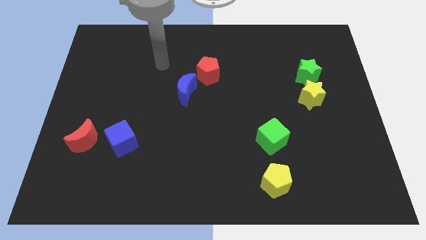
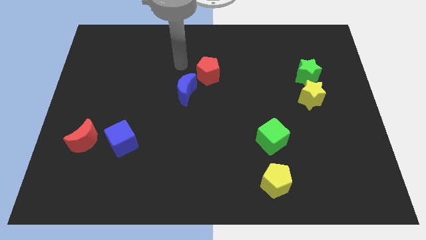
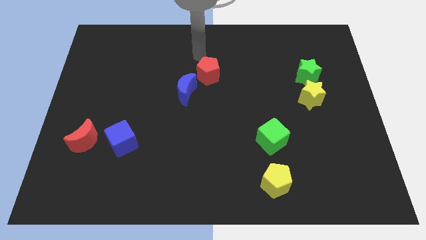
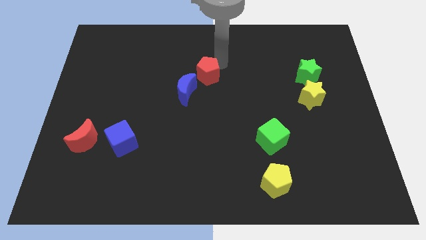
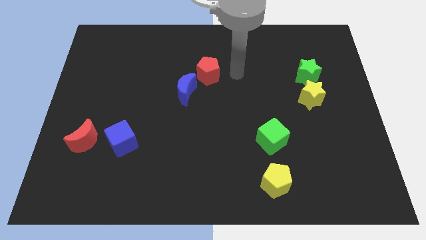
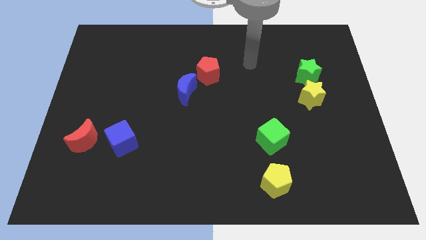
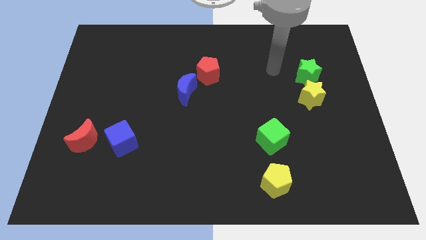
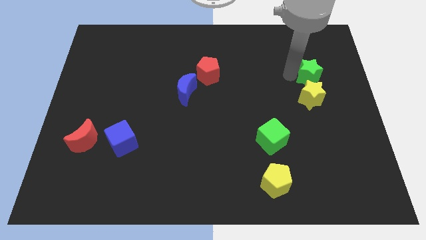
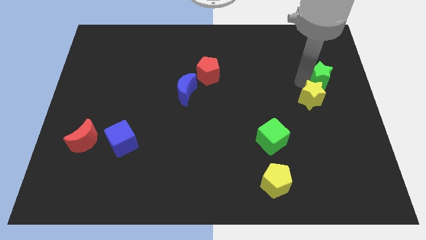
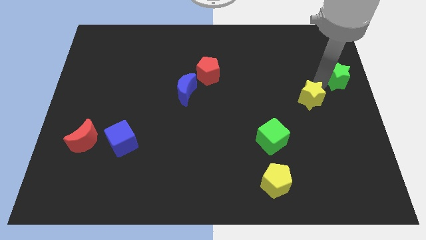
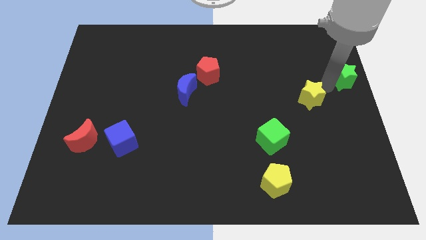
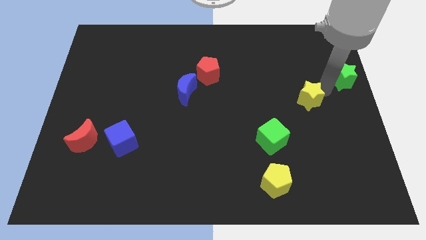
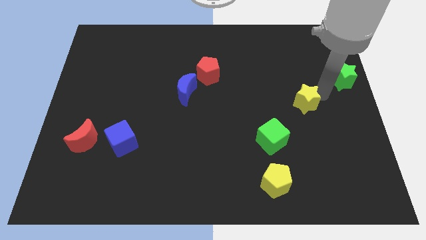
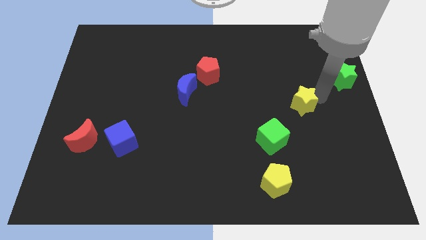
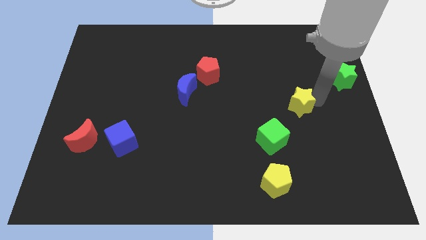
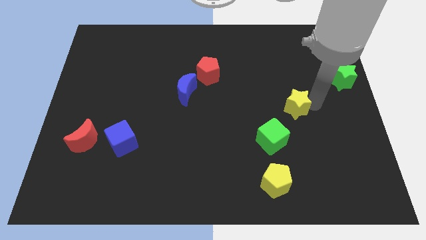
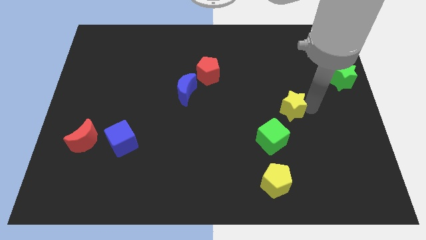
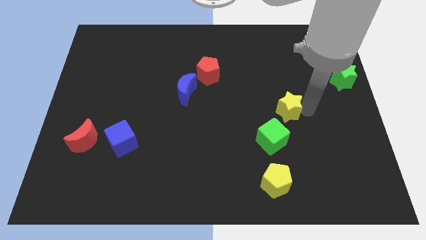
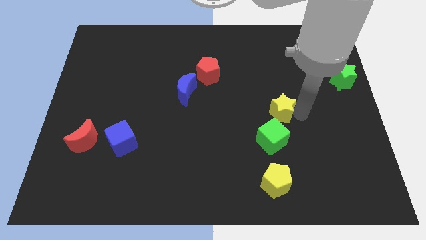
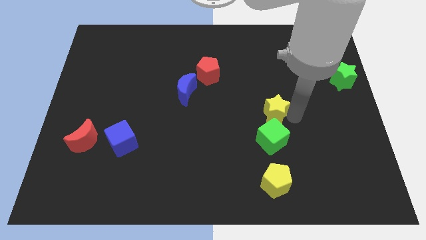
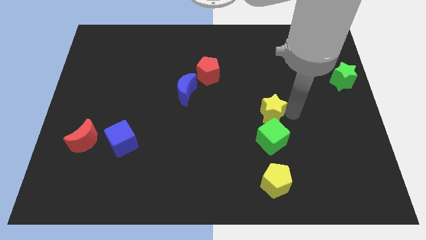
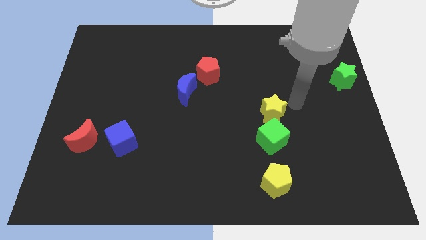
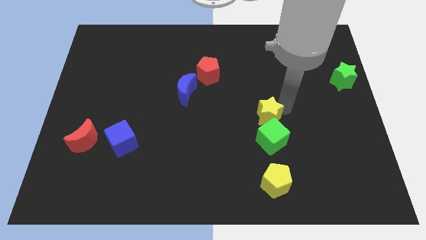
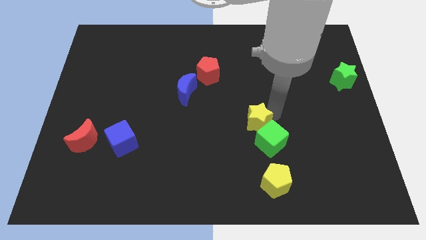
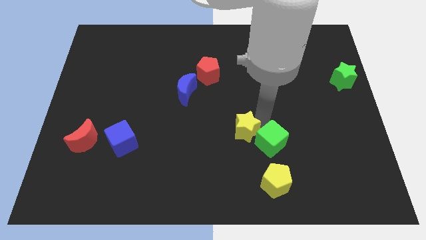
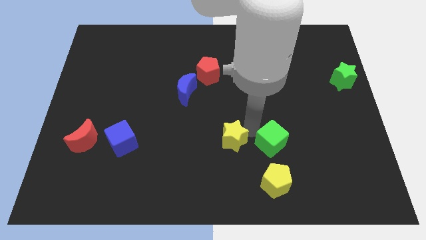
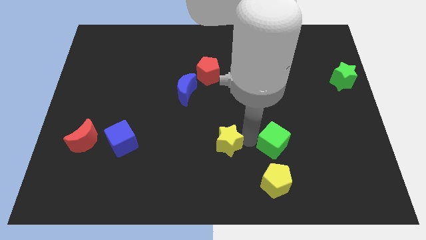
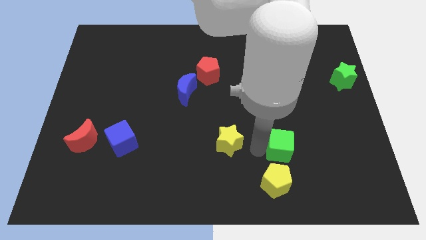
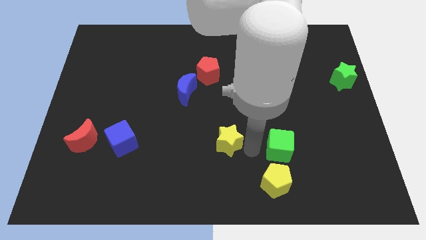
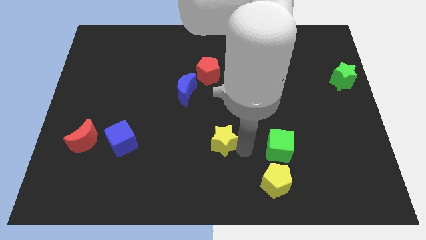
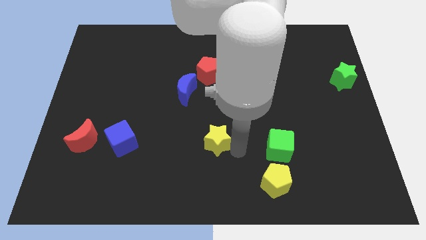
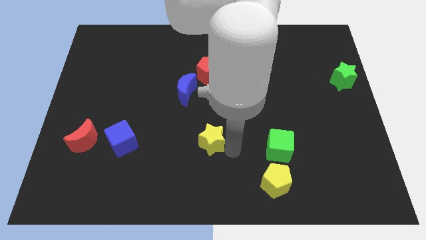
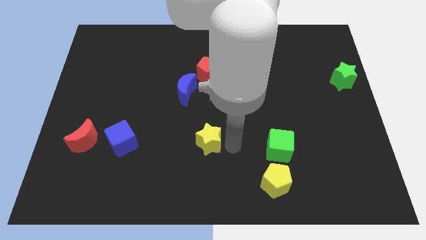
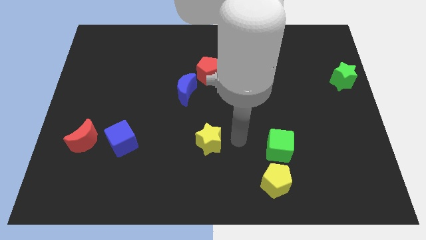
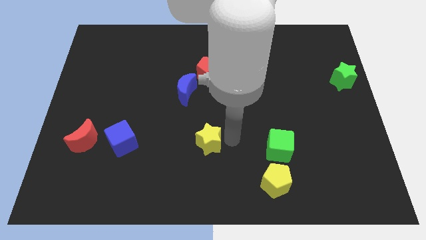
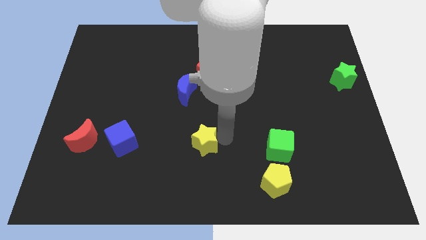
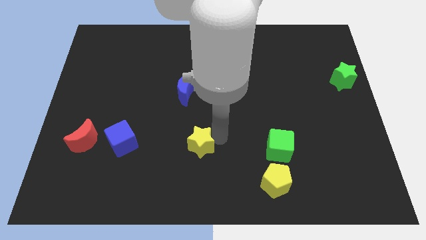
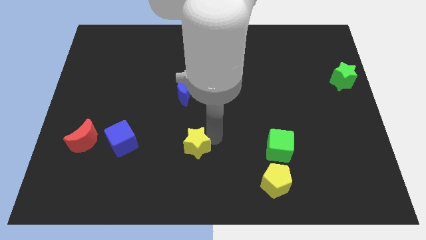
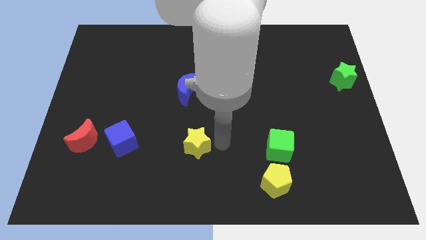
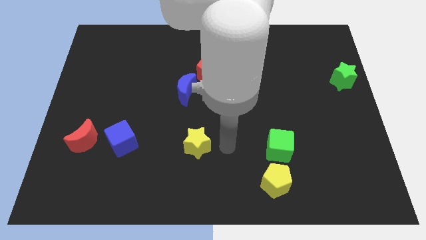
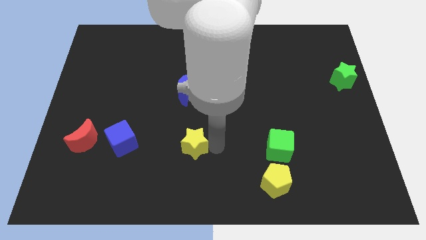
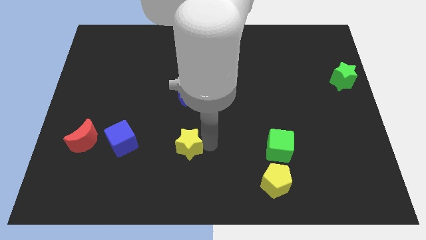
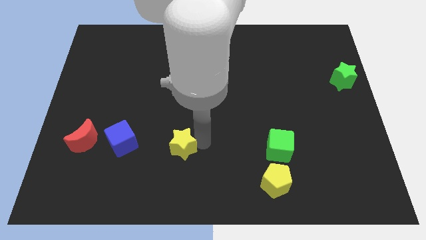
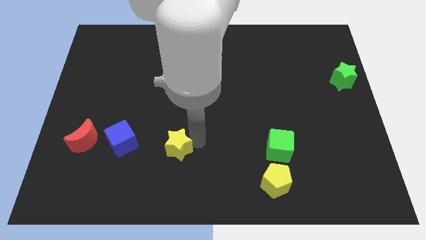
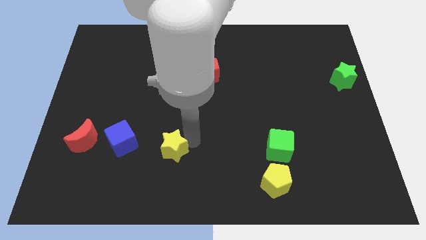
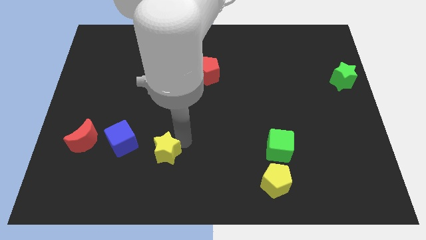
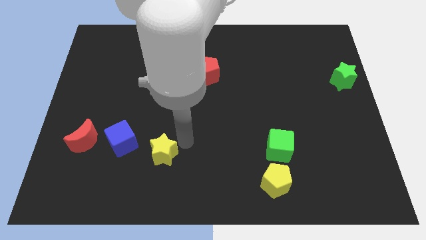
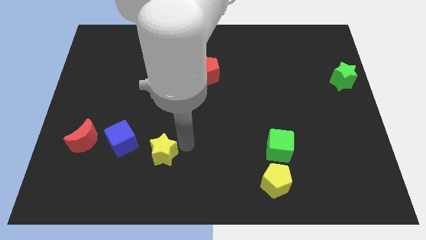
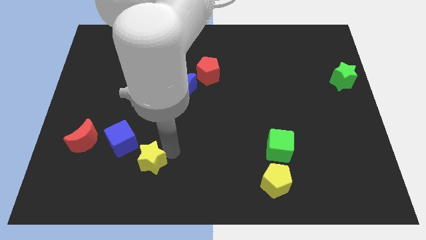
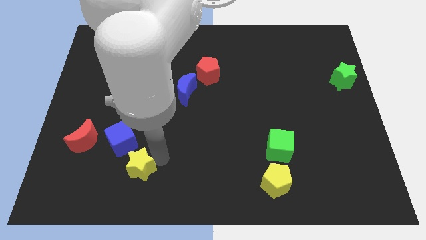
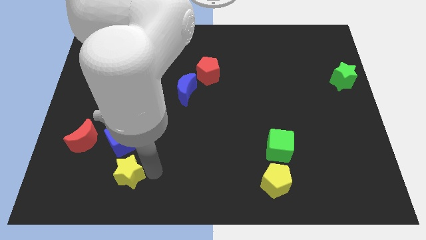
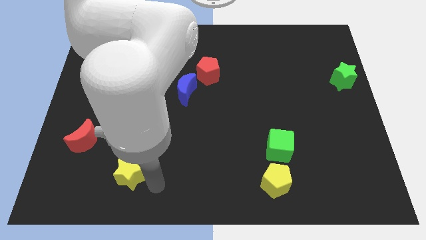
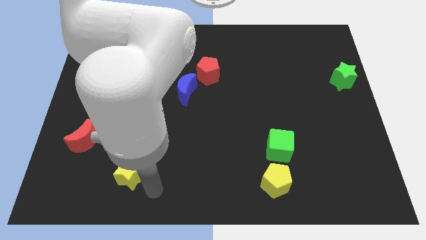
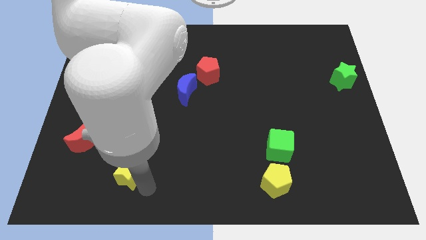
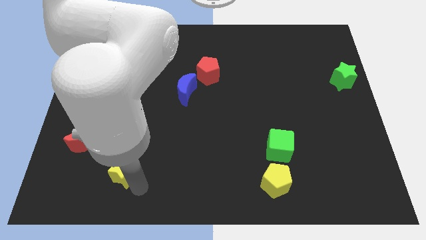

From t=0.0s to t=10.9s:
slide the yellow star diagonally down and to the right of the red moon

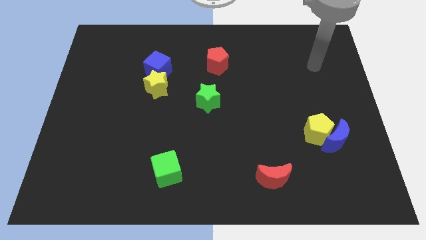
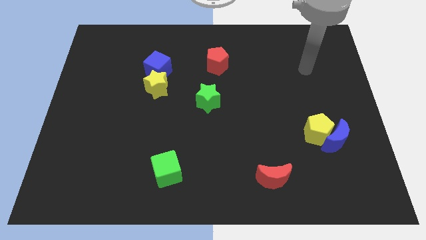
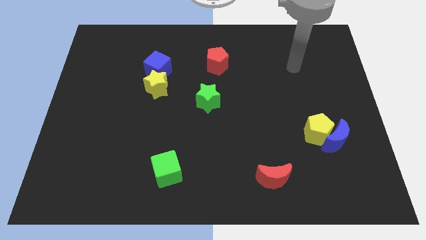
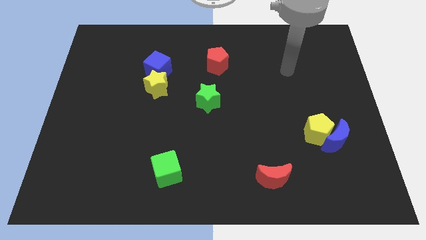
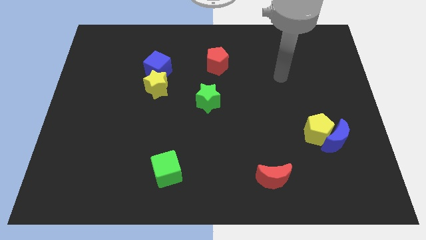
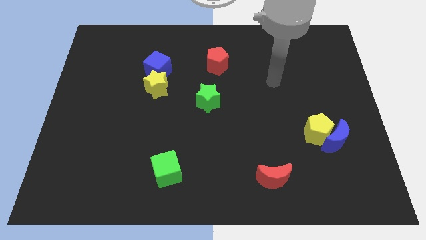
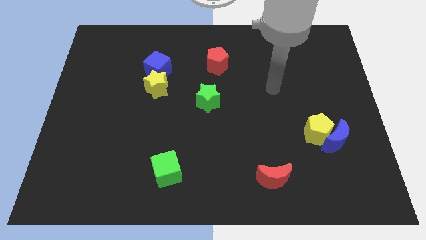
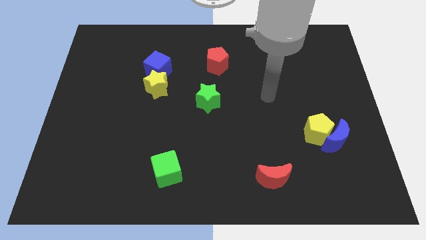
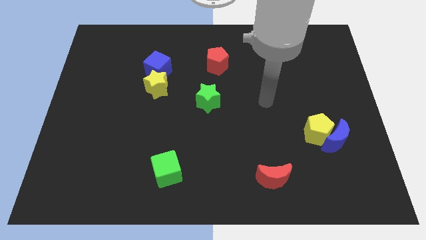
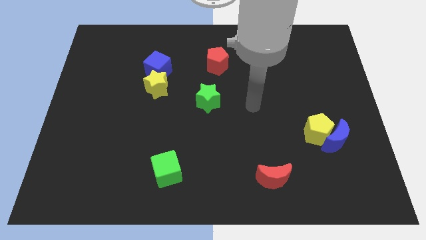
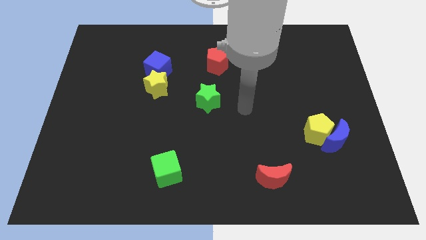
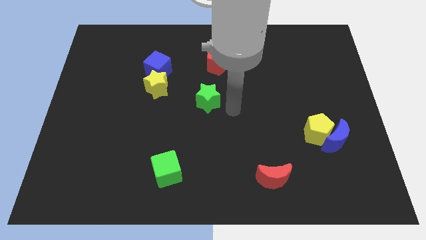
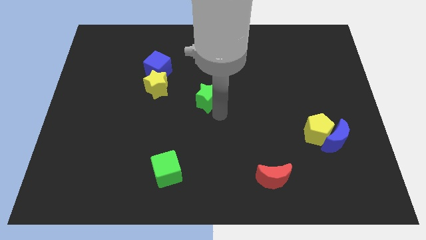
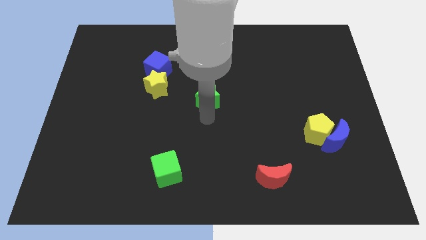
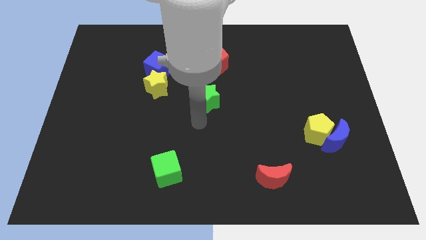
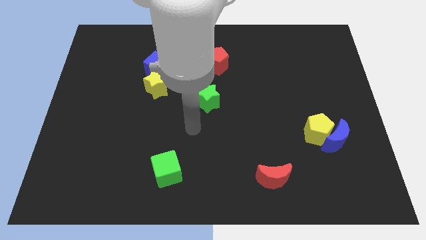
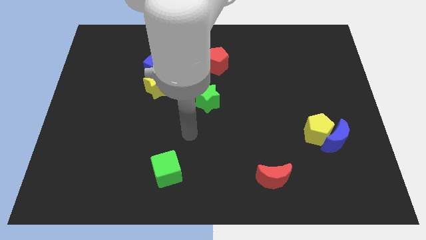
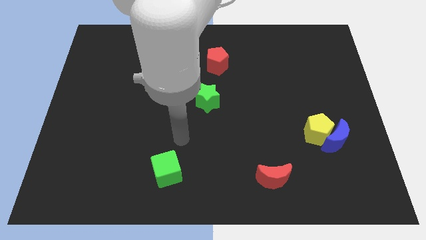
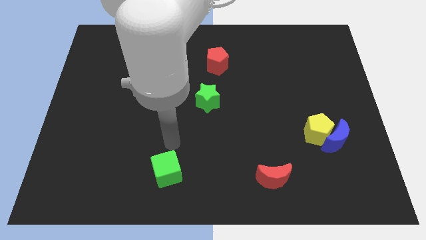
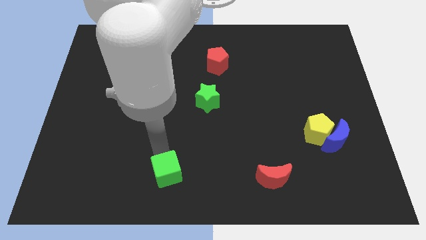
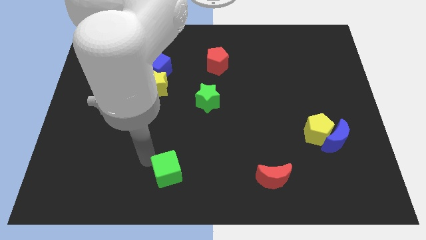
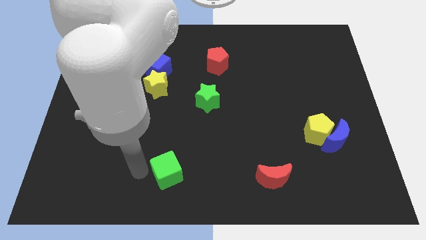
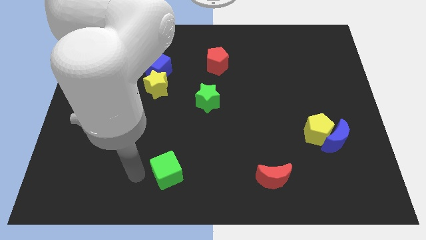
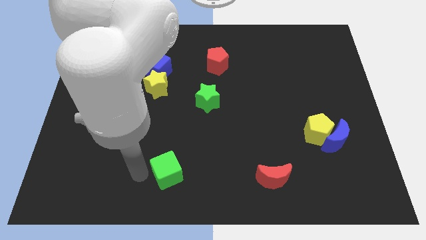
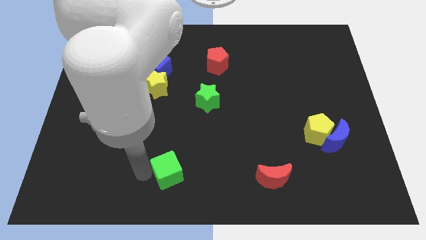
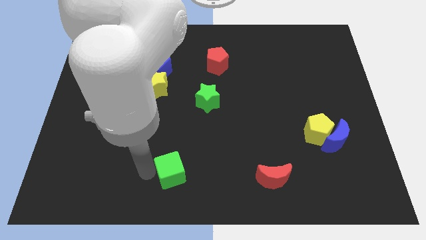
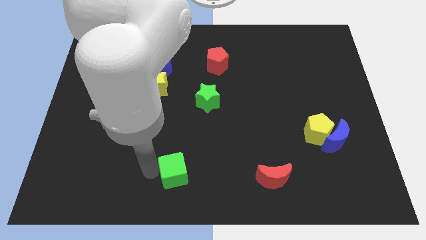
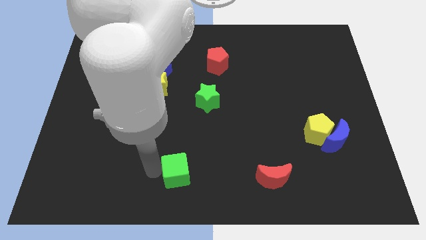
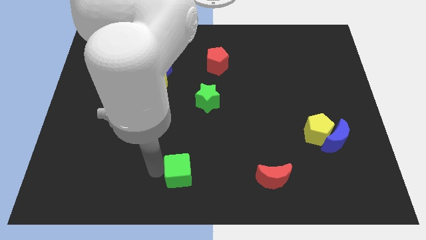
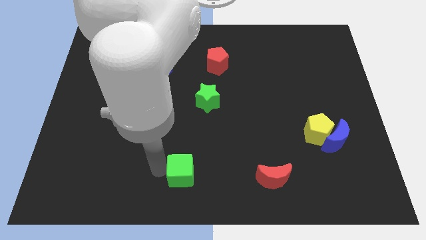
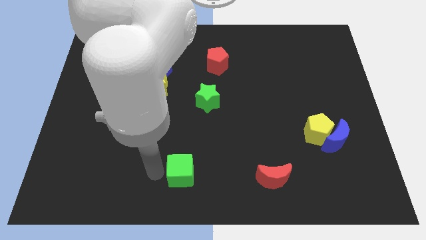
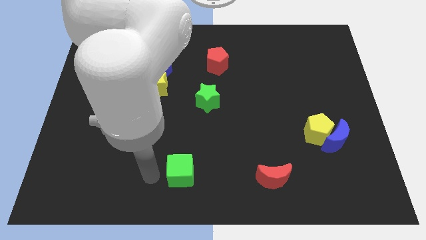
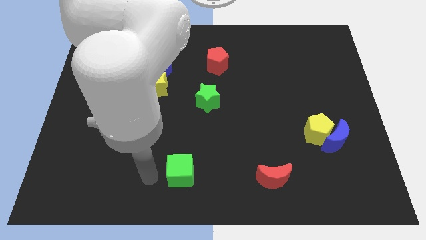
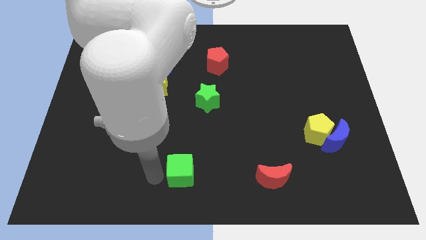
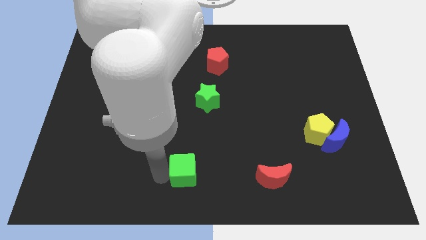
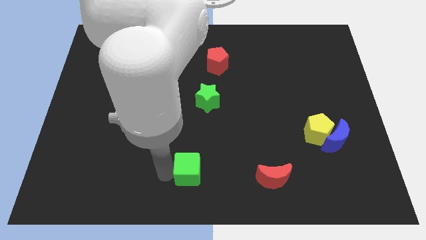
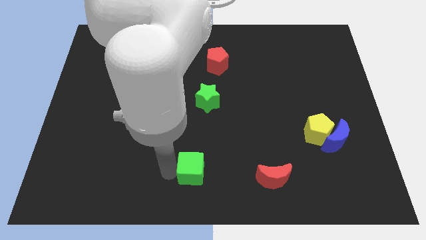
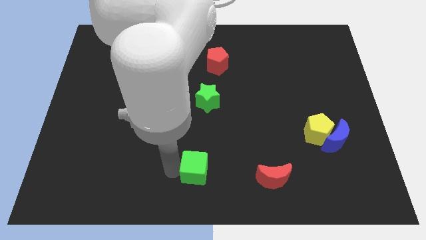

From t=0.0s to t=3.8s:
push the green cube to the left of the red moon
